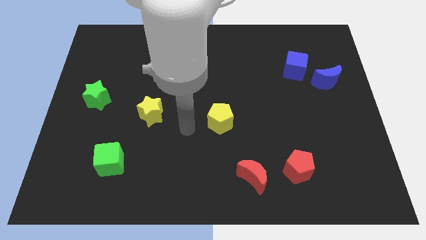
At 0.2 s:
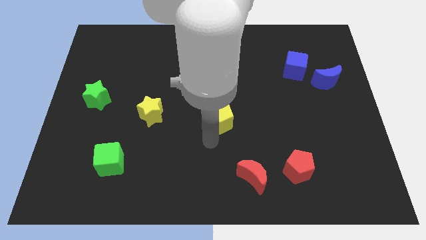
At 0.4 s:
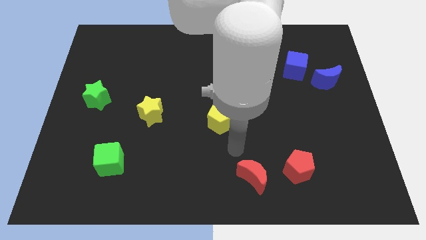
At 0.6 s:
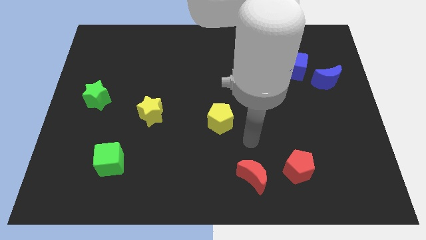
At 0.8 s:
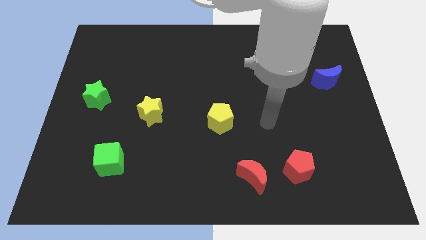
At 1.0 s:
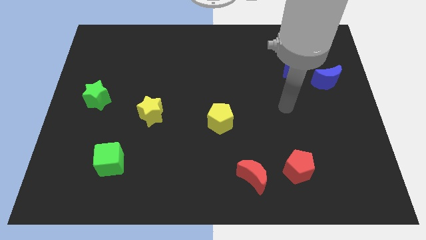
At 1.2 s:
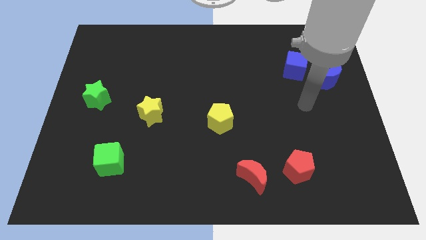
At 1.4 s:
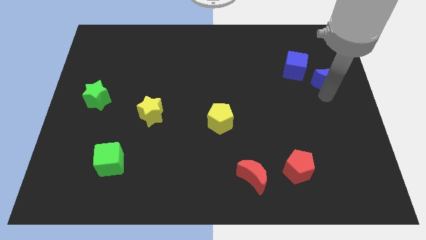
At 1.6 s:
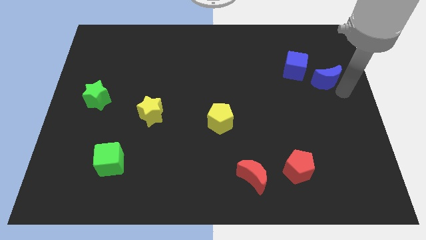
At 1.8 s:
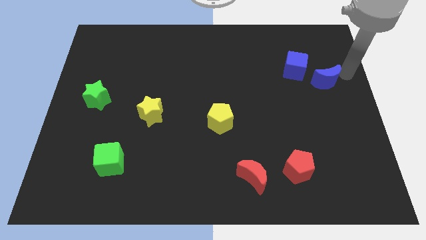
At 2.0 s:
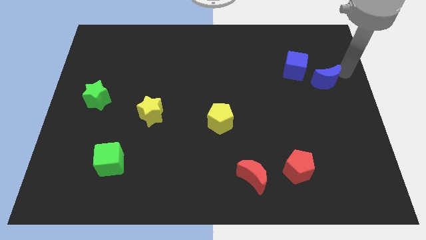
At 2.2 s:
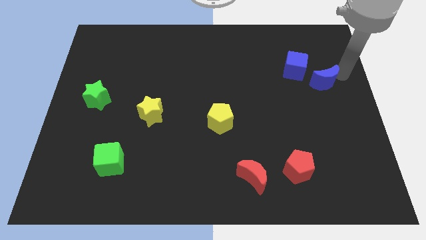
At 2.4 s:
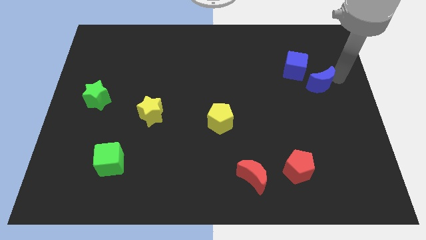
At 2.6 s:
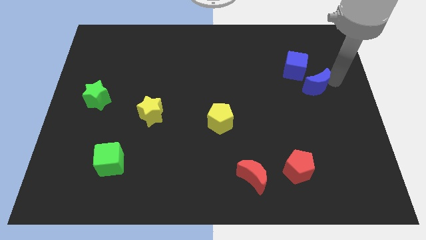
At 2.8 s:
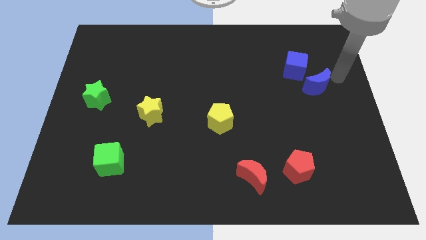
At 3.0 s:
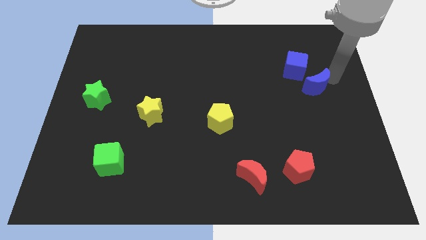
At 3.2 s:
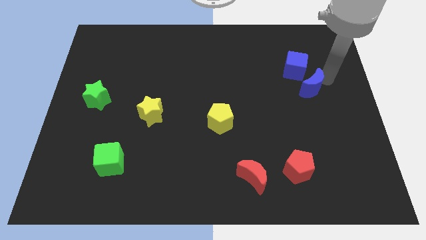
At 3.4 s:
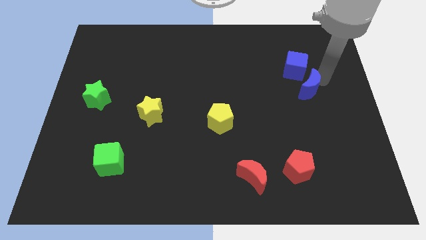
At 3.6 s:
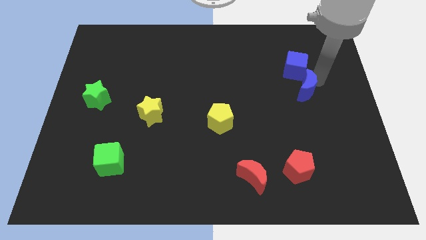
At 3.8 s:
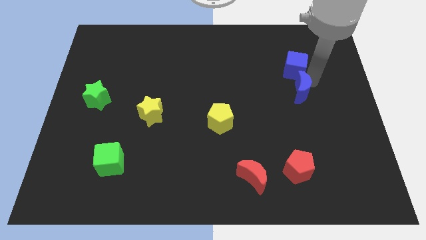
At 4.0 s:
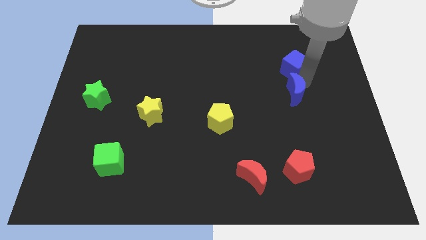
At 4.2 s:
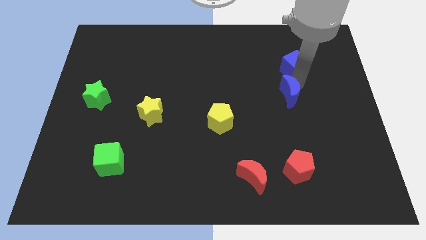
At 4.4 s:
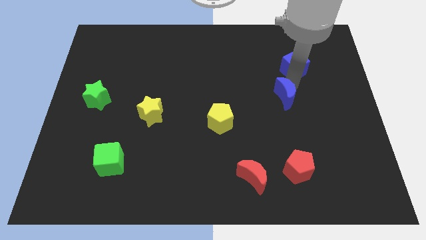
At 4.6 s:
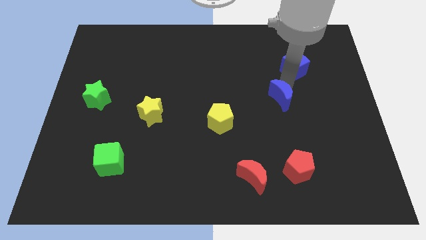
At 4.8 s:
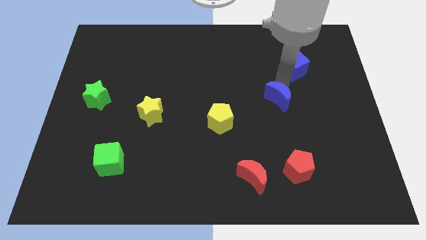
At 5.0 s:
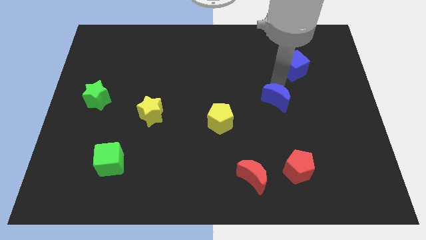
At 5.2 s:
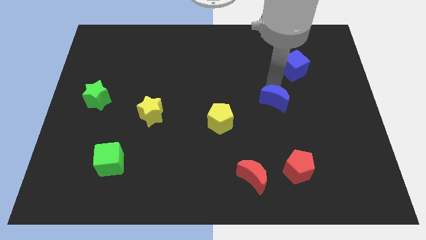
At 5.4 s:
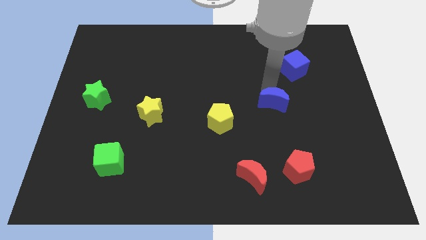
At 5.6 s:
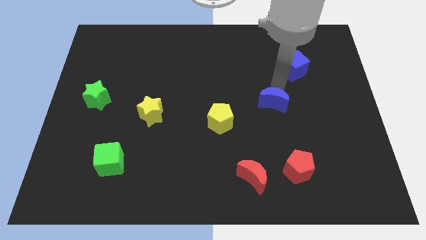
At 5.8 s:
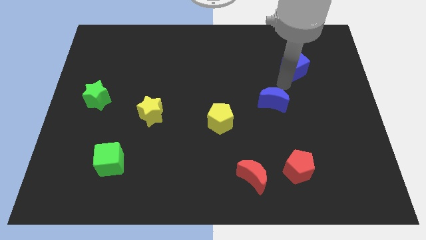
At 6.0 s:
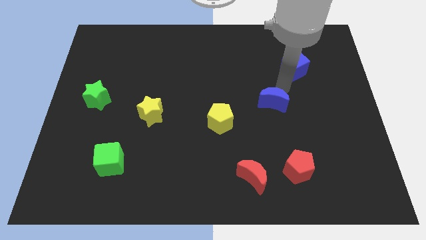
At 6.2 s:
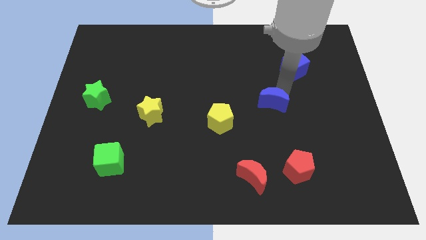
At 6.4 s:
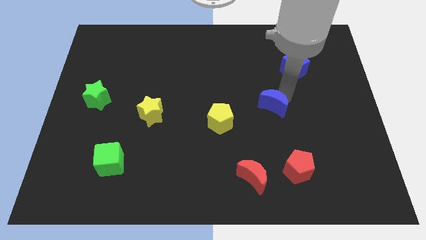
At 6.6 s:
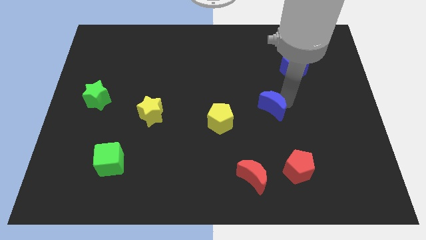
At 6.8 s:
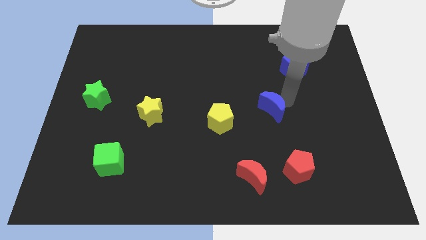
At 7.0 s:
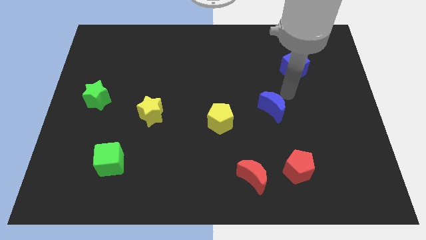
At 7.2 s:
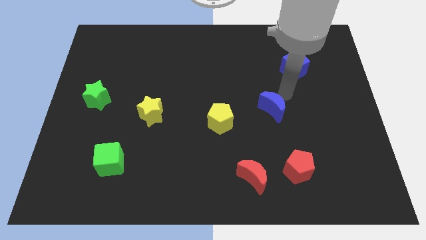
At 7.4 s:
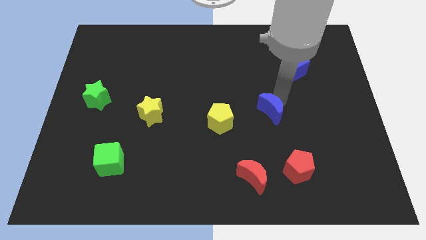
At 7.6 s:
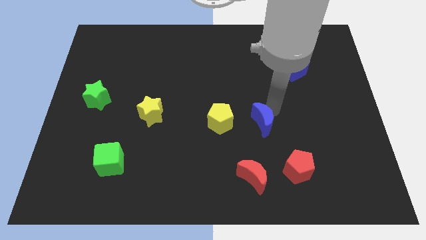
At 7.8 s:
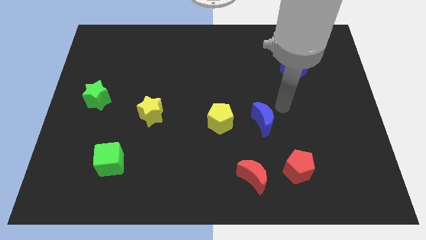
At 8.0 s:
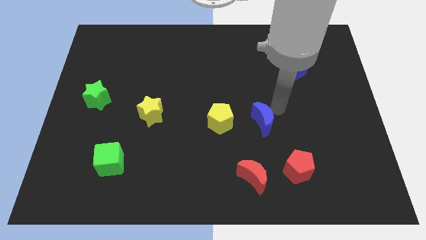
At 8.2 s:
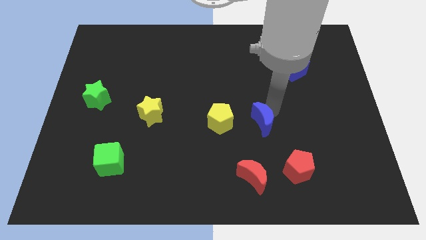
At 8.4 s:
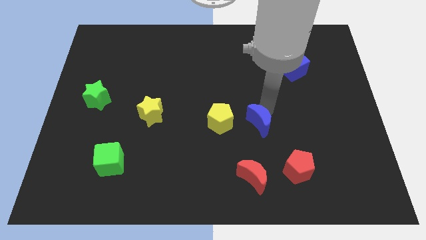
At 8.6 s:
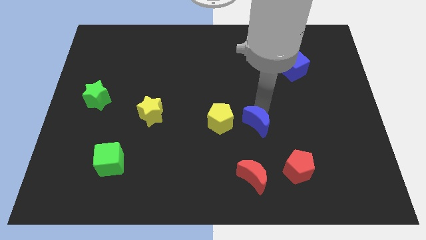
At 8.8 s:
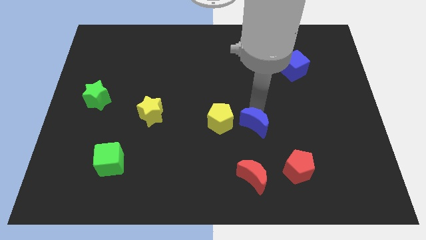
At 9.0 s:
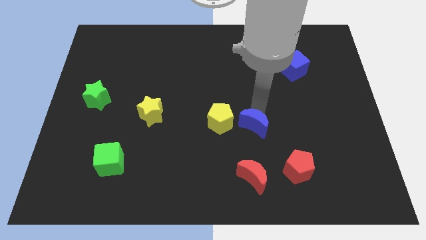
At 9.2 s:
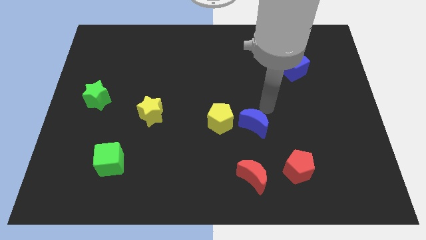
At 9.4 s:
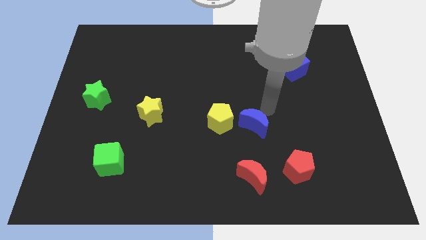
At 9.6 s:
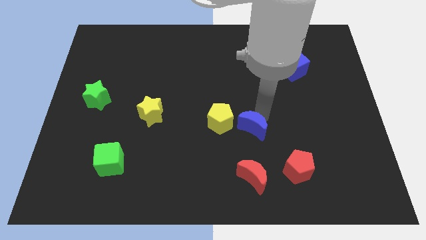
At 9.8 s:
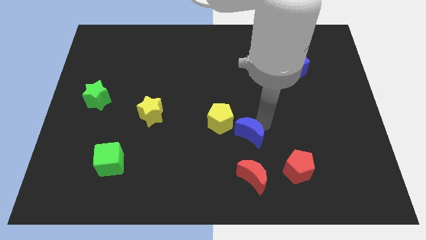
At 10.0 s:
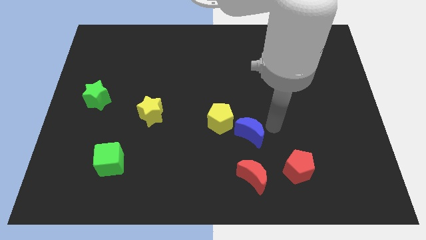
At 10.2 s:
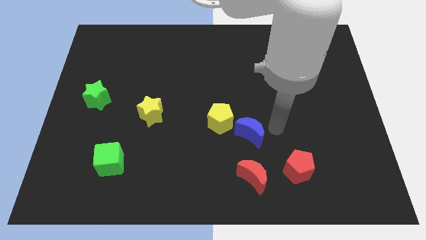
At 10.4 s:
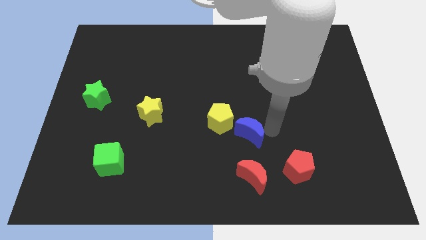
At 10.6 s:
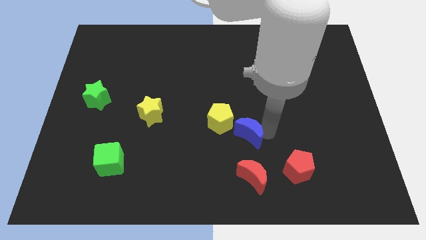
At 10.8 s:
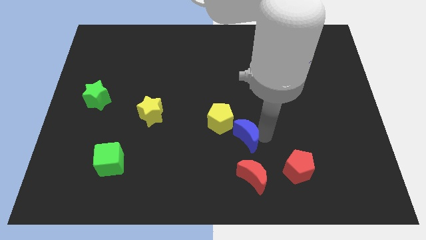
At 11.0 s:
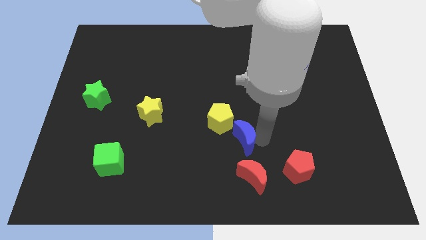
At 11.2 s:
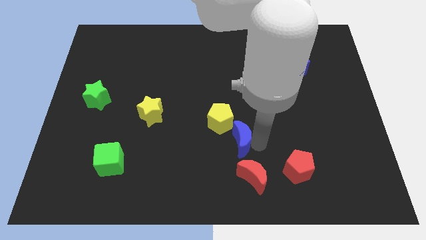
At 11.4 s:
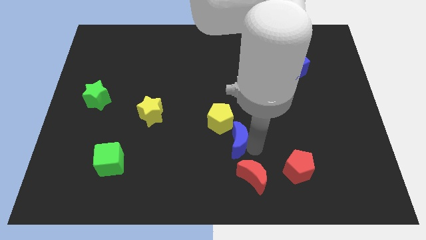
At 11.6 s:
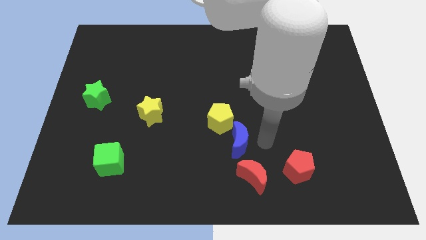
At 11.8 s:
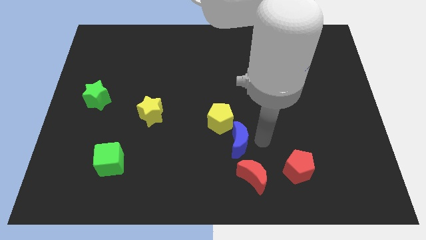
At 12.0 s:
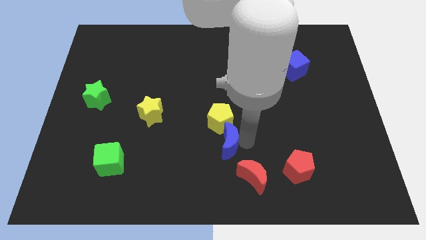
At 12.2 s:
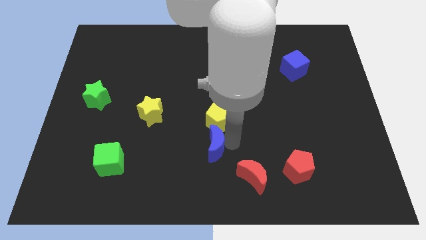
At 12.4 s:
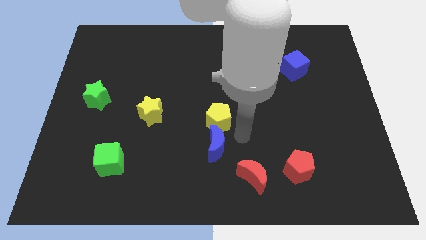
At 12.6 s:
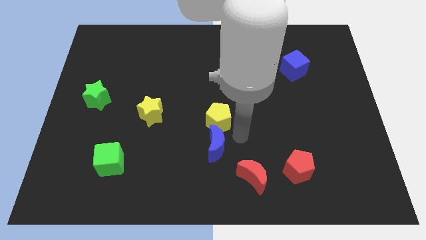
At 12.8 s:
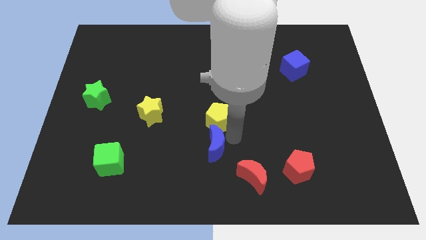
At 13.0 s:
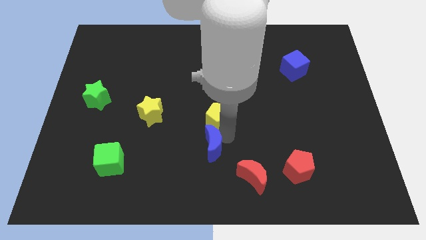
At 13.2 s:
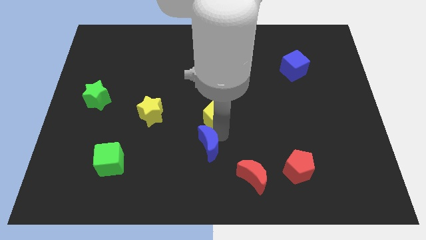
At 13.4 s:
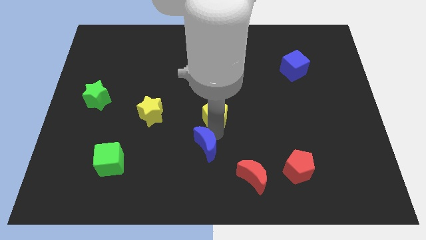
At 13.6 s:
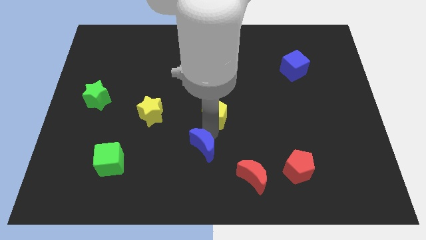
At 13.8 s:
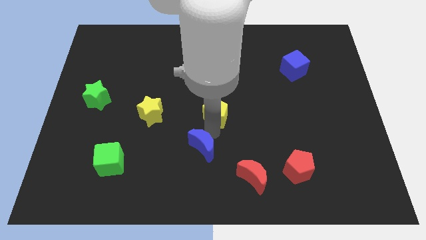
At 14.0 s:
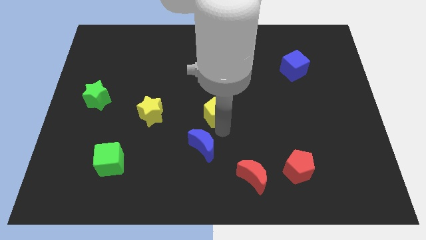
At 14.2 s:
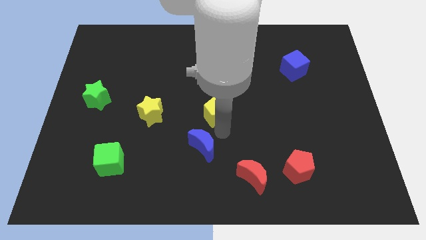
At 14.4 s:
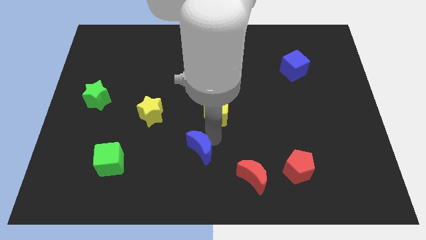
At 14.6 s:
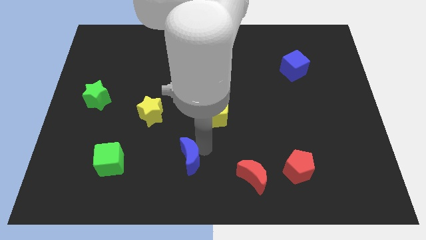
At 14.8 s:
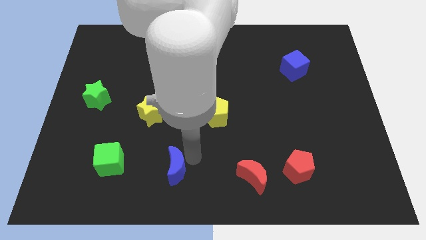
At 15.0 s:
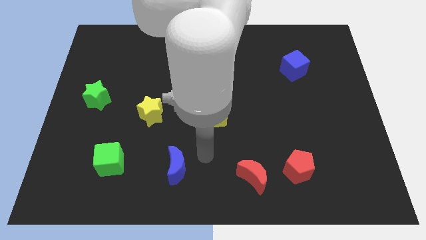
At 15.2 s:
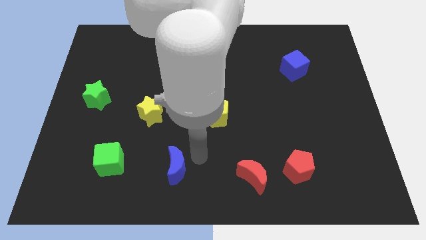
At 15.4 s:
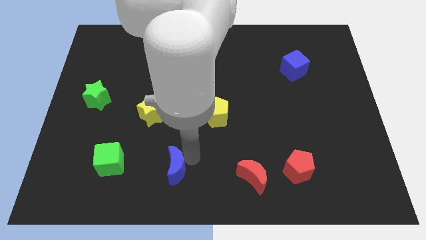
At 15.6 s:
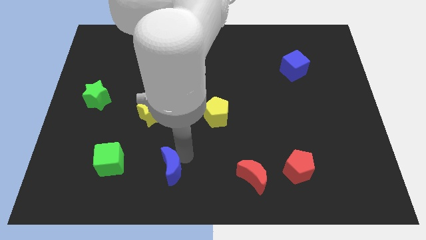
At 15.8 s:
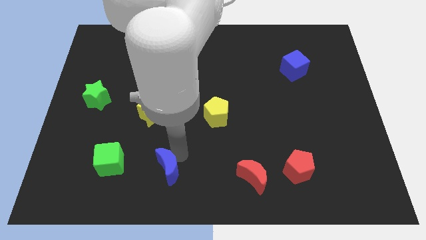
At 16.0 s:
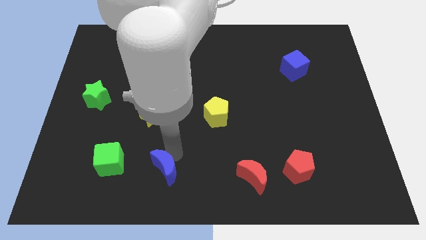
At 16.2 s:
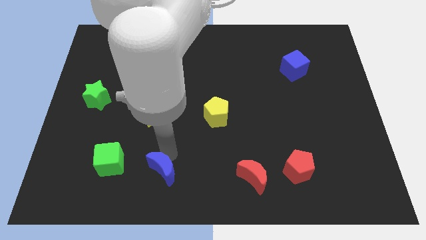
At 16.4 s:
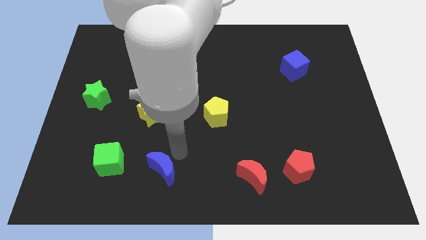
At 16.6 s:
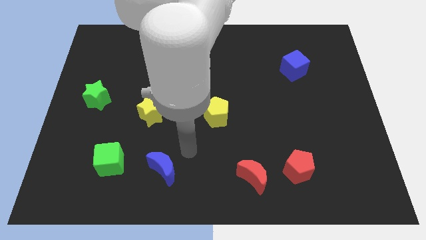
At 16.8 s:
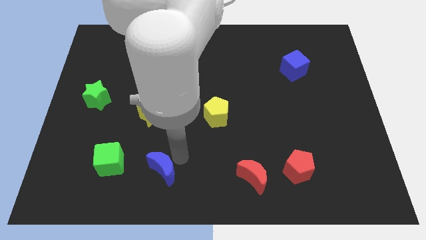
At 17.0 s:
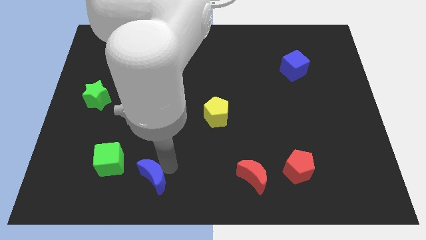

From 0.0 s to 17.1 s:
slide the blue moon to the bottom right side of the green cube
